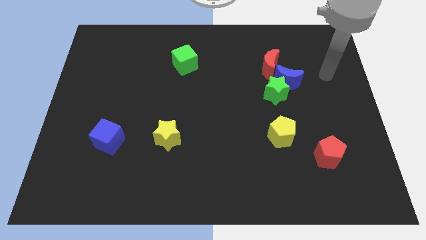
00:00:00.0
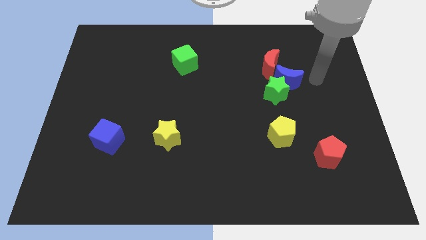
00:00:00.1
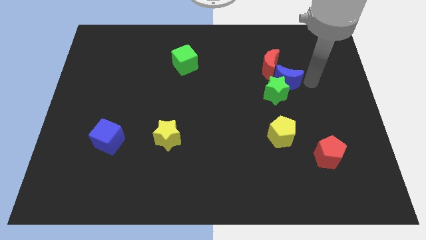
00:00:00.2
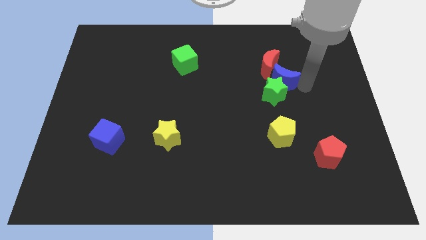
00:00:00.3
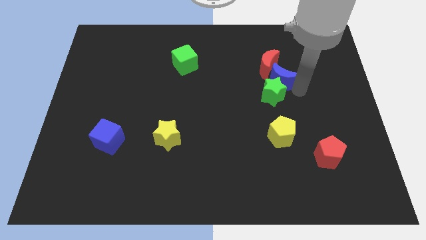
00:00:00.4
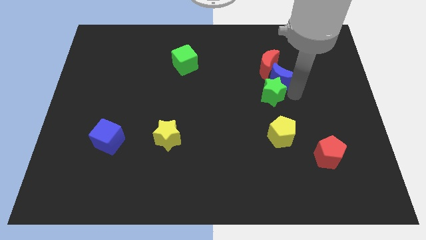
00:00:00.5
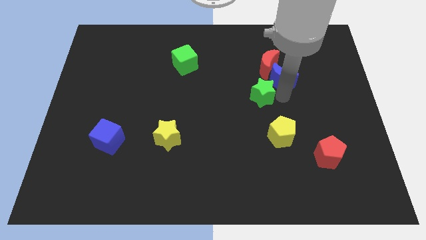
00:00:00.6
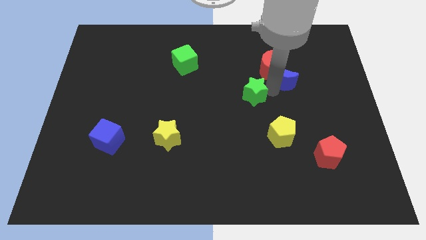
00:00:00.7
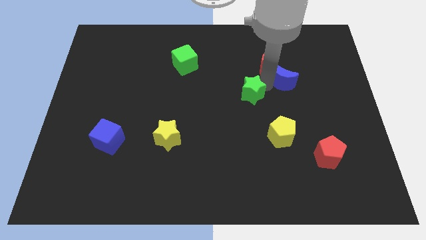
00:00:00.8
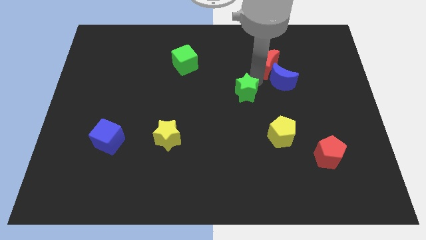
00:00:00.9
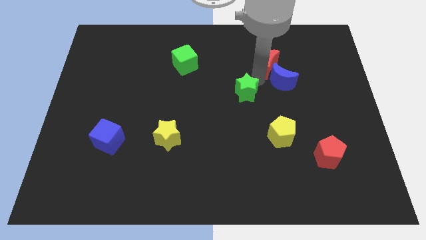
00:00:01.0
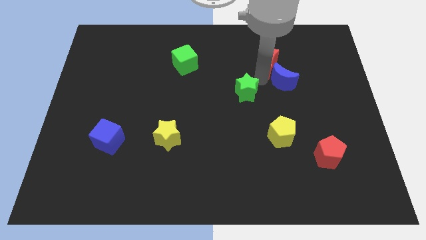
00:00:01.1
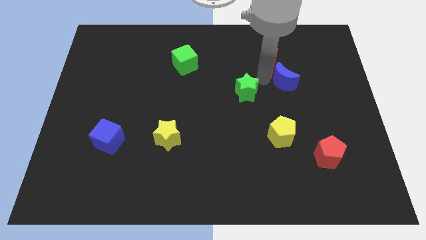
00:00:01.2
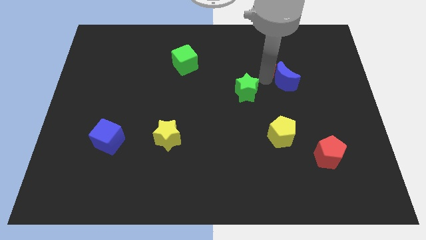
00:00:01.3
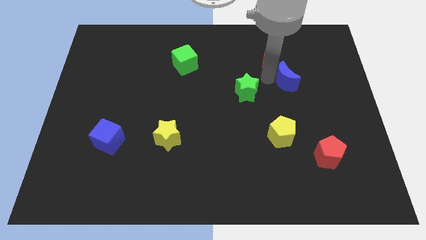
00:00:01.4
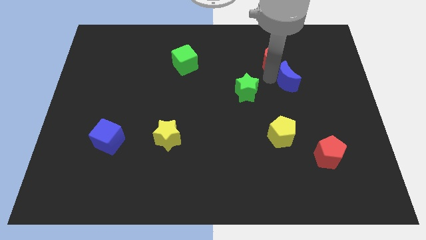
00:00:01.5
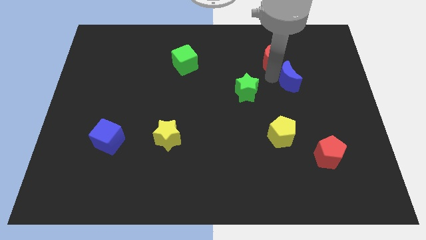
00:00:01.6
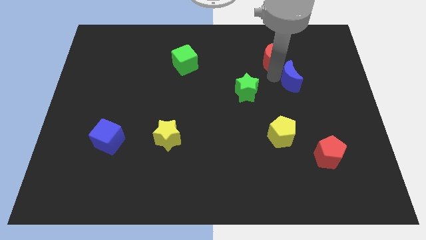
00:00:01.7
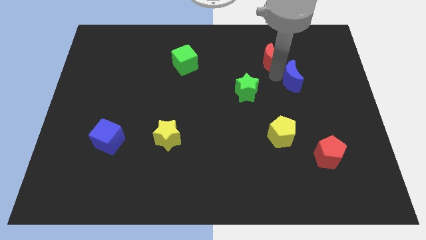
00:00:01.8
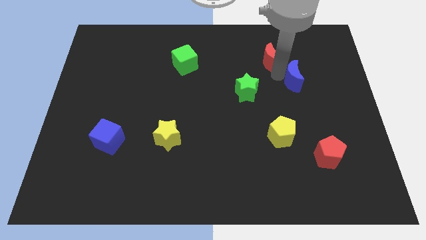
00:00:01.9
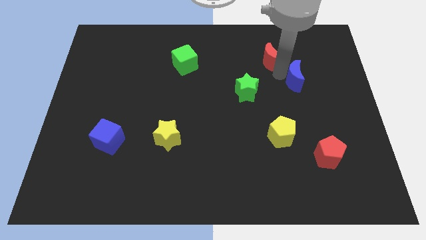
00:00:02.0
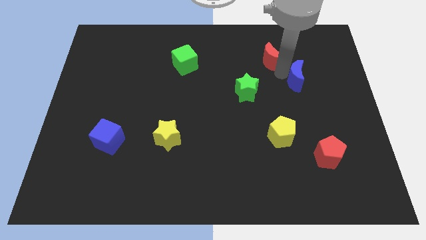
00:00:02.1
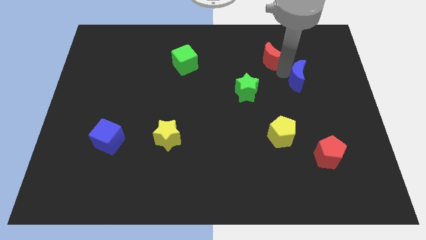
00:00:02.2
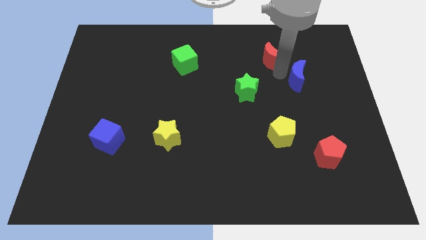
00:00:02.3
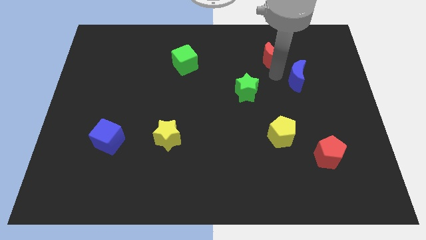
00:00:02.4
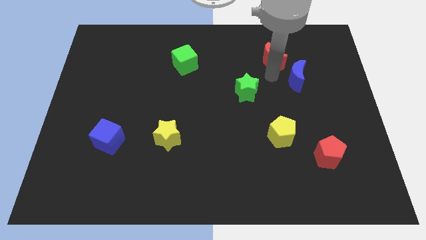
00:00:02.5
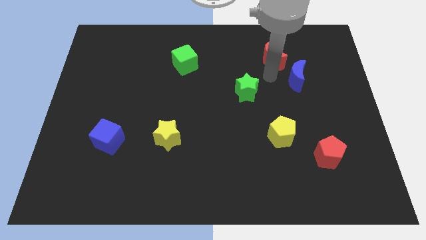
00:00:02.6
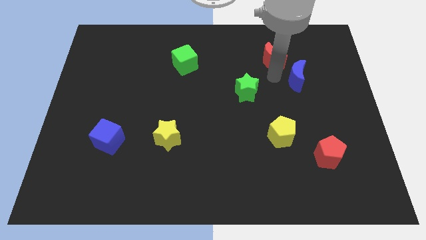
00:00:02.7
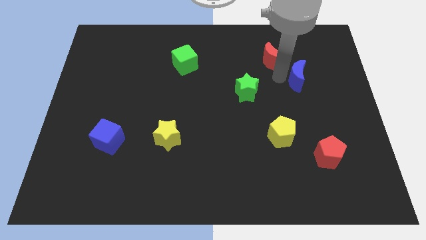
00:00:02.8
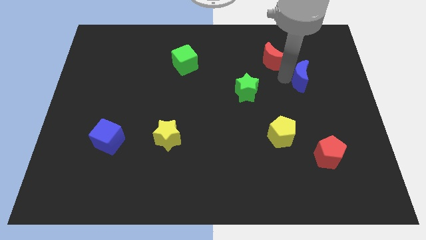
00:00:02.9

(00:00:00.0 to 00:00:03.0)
move the blue moon away from the green star and red moon

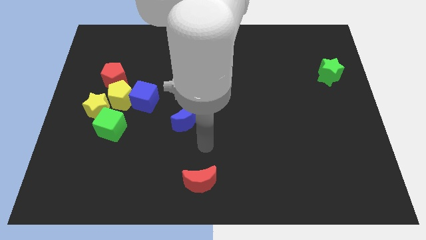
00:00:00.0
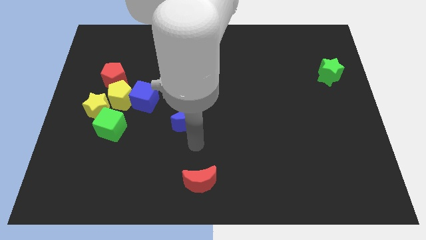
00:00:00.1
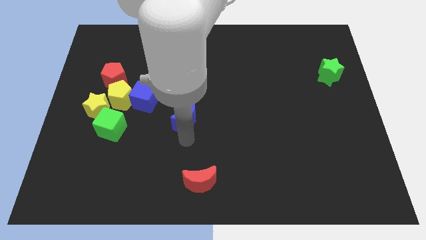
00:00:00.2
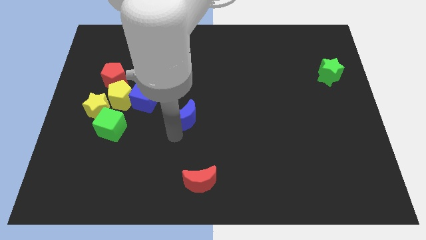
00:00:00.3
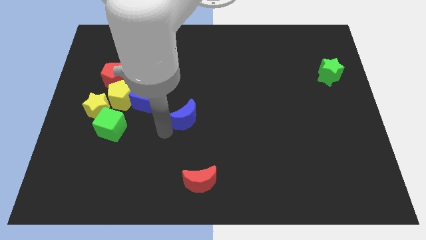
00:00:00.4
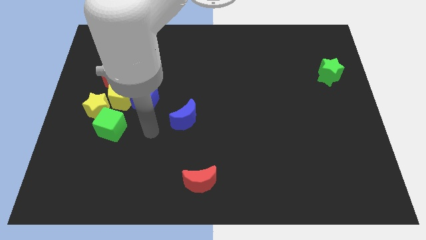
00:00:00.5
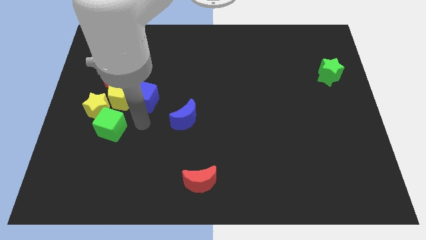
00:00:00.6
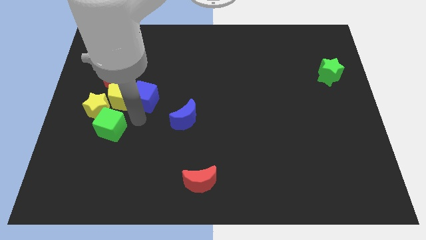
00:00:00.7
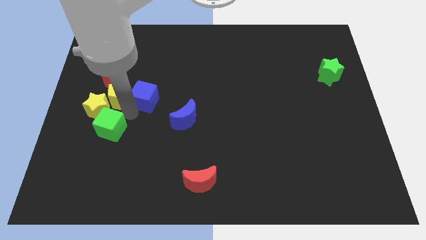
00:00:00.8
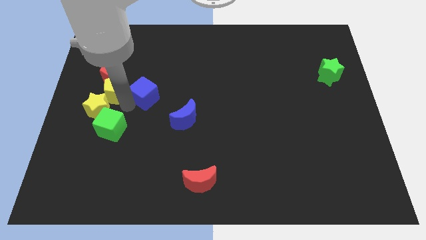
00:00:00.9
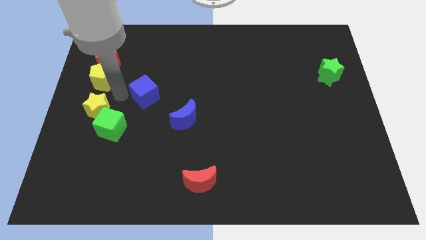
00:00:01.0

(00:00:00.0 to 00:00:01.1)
move the blue cube away from the yellow pentagon

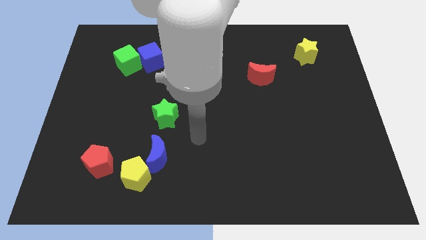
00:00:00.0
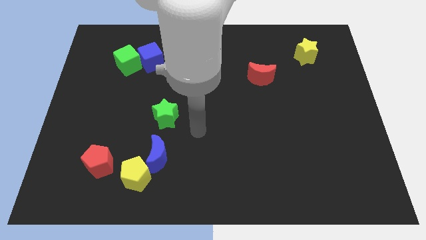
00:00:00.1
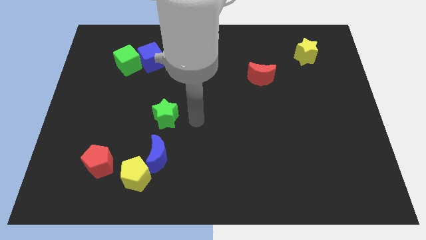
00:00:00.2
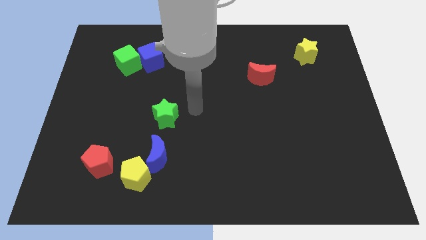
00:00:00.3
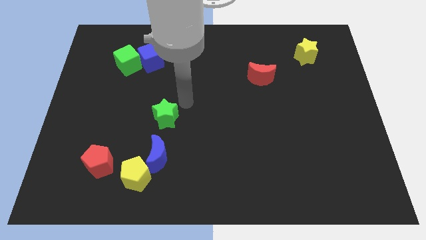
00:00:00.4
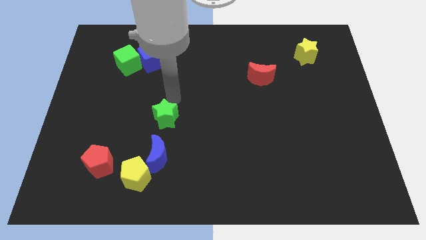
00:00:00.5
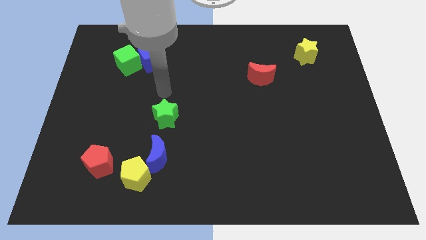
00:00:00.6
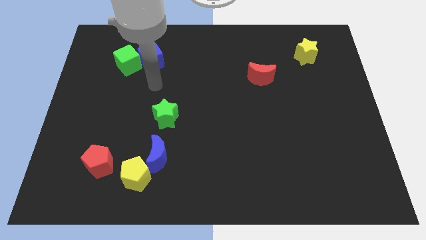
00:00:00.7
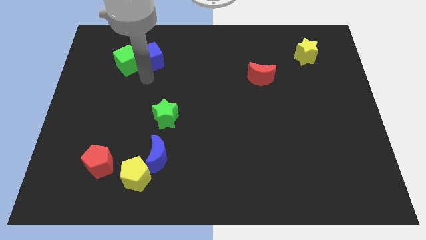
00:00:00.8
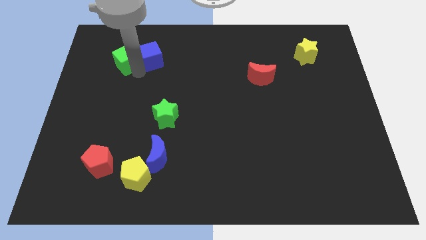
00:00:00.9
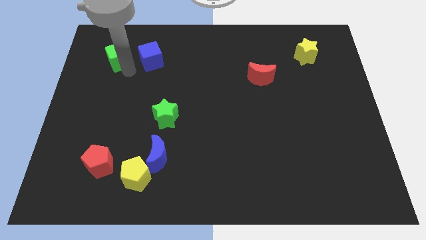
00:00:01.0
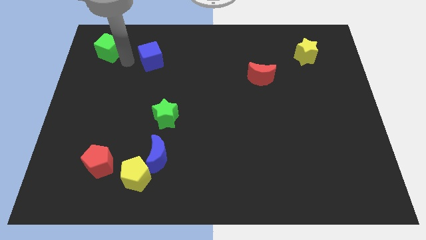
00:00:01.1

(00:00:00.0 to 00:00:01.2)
pull the blue cube apart from the green cube

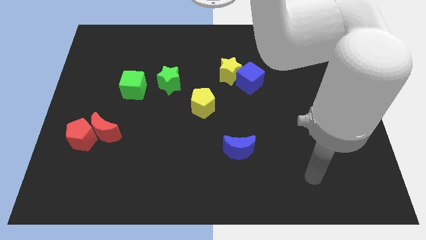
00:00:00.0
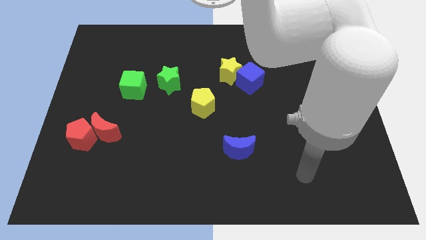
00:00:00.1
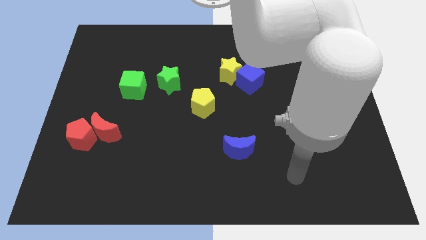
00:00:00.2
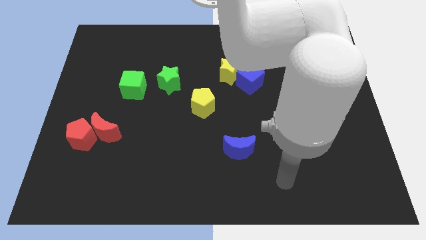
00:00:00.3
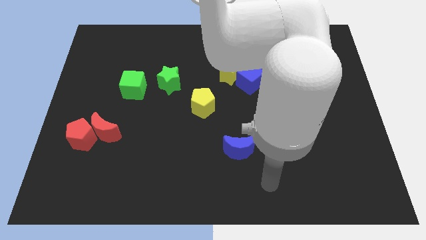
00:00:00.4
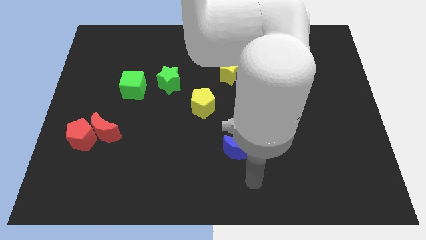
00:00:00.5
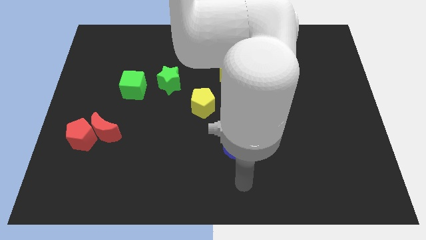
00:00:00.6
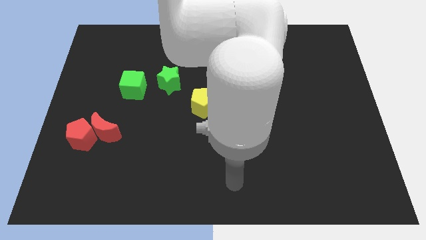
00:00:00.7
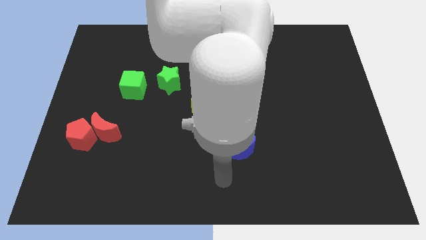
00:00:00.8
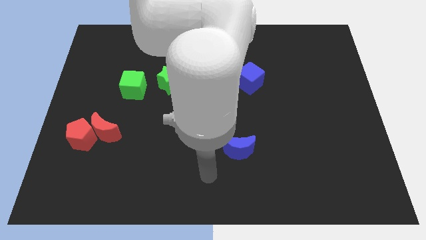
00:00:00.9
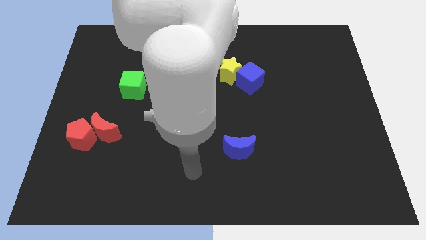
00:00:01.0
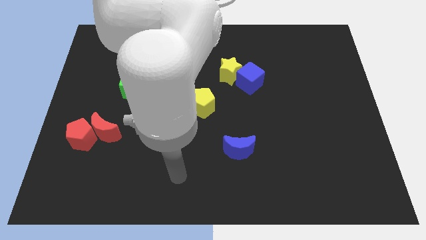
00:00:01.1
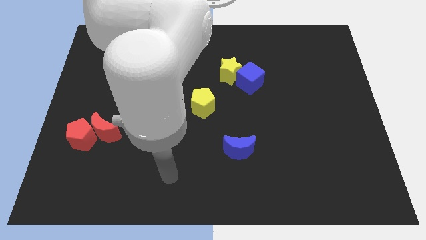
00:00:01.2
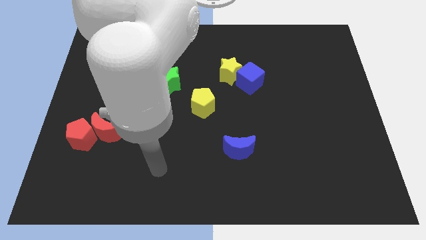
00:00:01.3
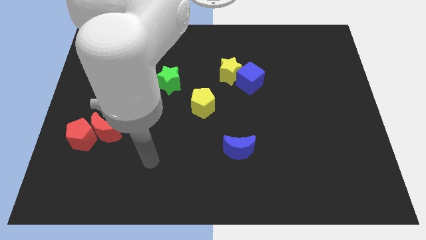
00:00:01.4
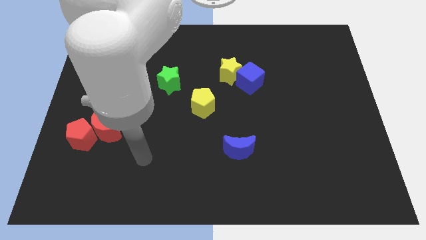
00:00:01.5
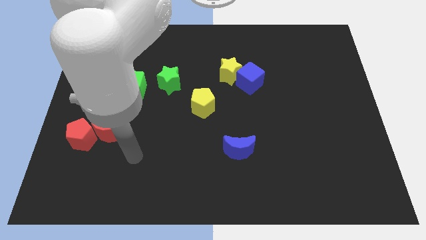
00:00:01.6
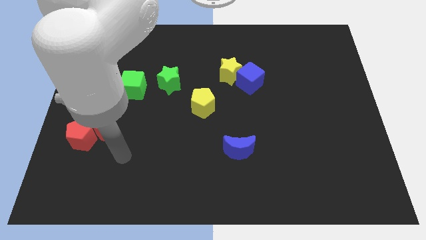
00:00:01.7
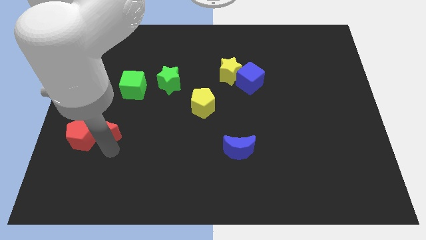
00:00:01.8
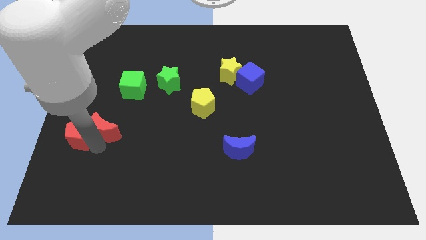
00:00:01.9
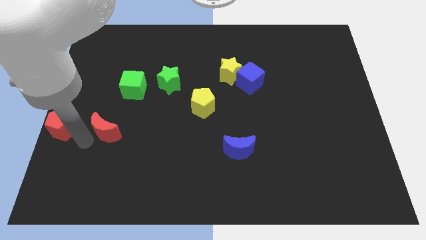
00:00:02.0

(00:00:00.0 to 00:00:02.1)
separate the red moon from the red pentagon

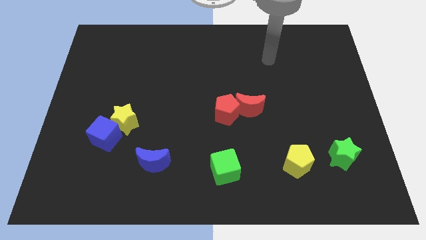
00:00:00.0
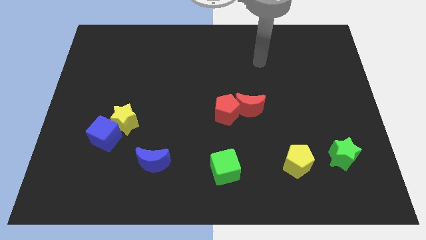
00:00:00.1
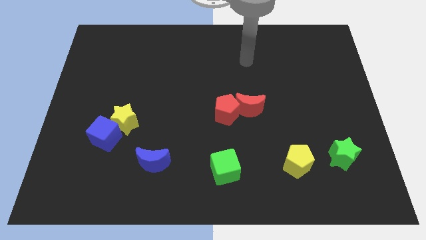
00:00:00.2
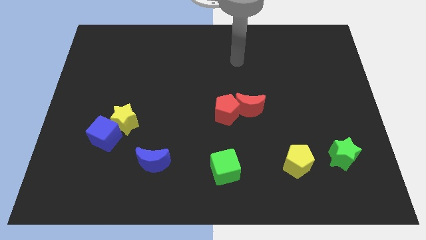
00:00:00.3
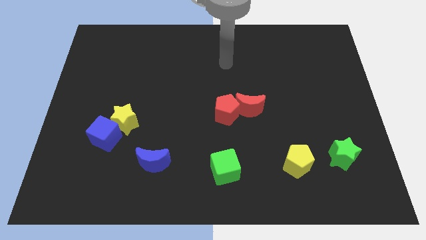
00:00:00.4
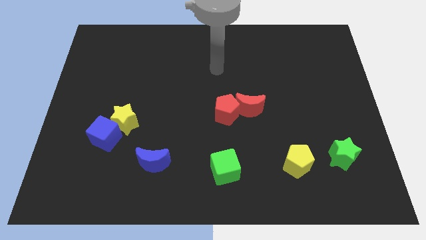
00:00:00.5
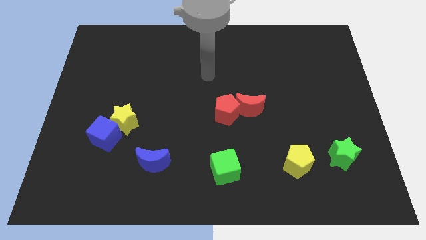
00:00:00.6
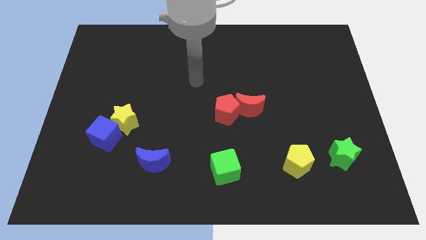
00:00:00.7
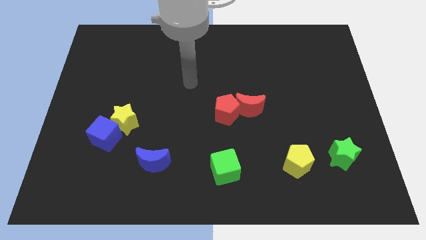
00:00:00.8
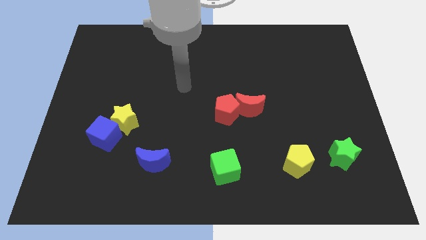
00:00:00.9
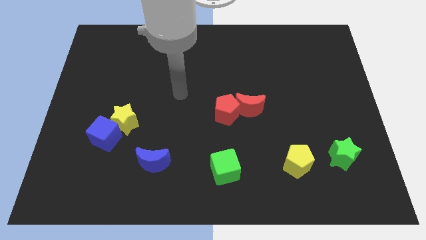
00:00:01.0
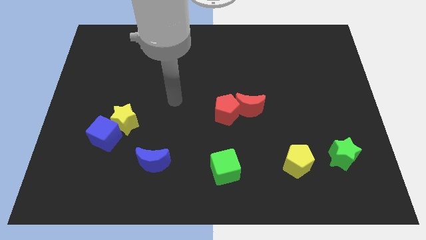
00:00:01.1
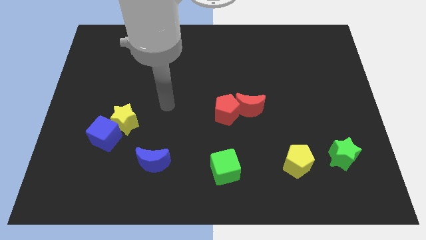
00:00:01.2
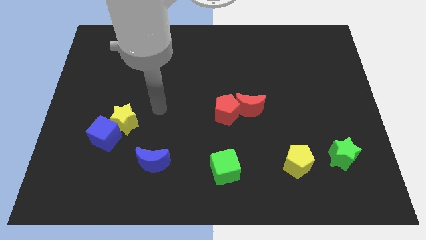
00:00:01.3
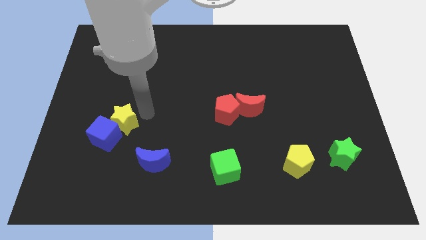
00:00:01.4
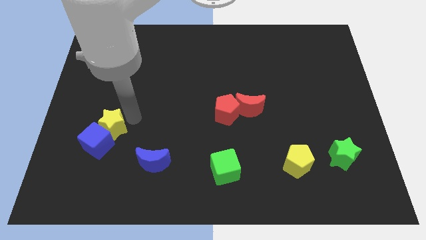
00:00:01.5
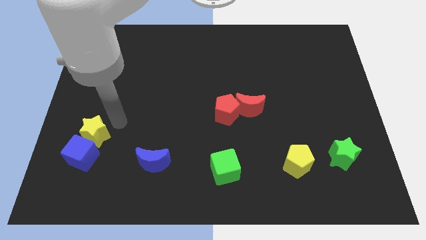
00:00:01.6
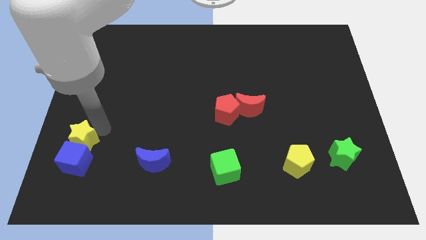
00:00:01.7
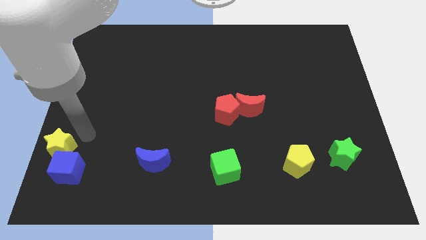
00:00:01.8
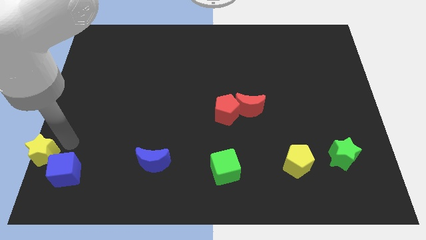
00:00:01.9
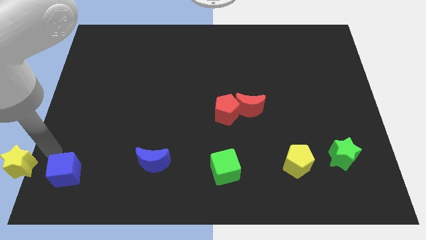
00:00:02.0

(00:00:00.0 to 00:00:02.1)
separate the blue cube from the yellow star
